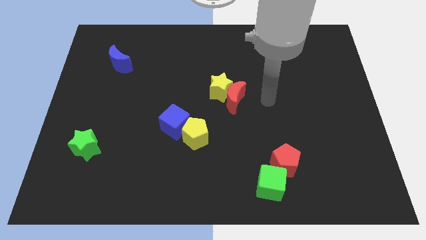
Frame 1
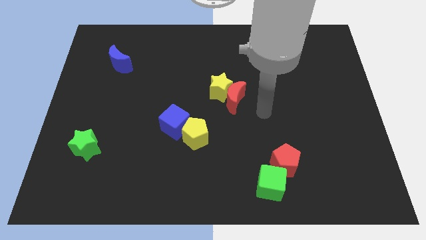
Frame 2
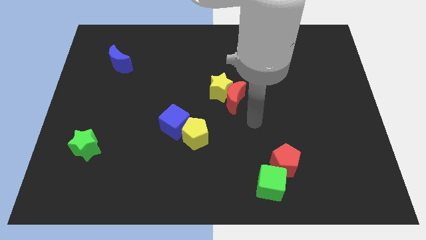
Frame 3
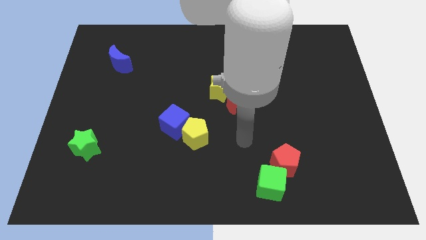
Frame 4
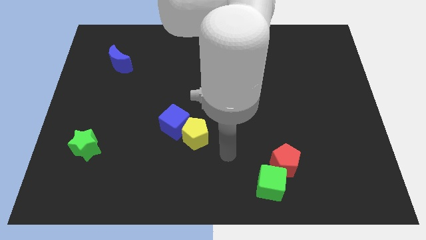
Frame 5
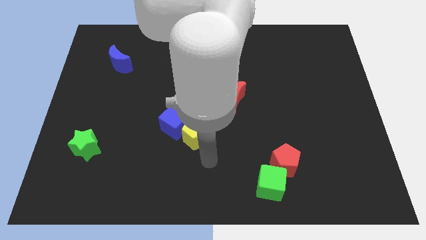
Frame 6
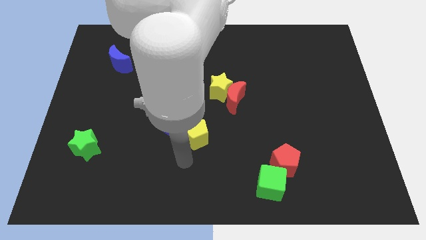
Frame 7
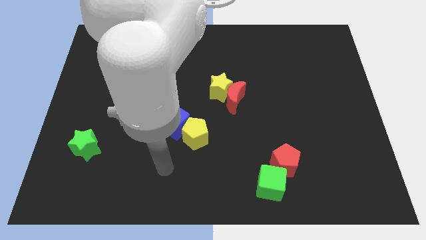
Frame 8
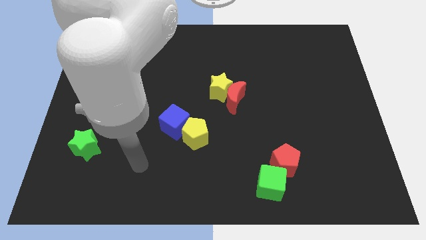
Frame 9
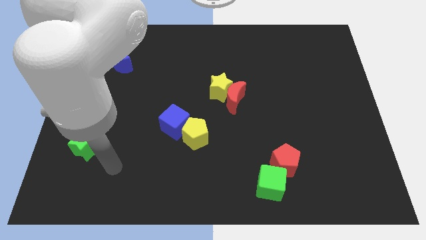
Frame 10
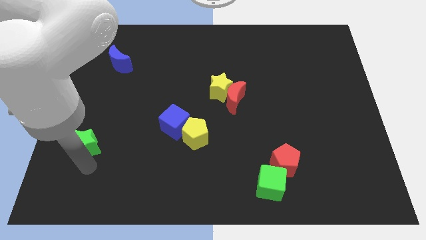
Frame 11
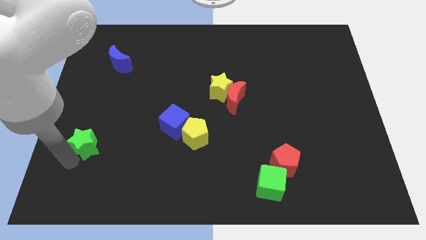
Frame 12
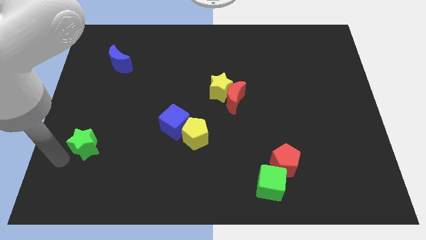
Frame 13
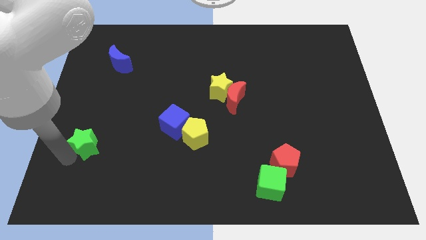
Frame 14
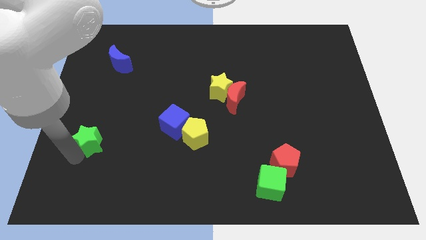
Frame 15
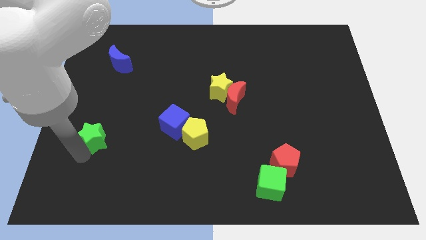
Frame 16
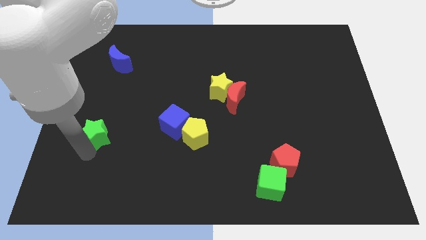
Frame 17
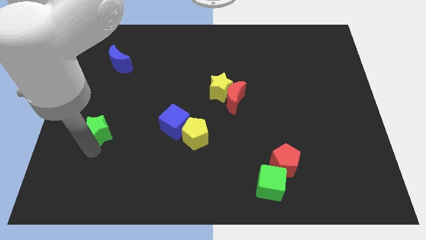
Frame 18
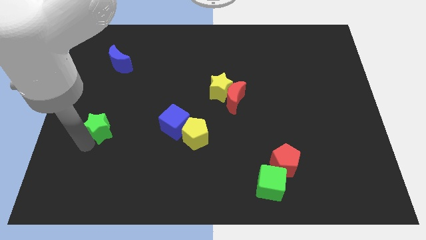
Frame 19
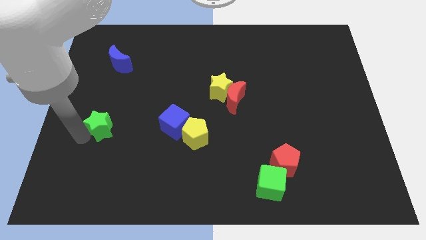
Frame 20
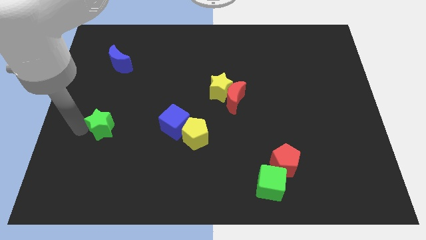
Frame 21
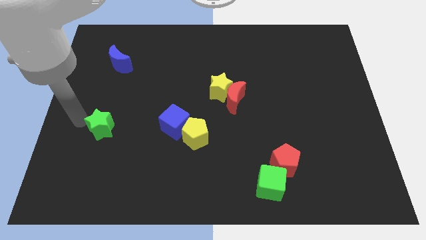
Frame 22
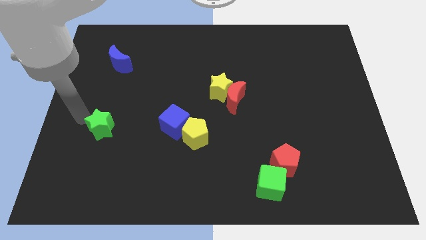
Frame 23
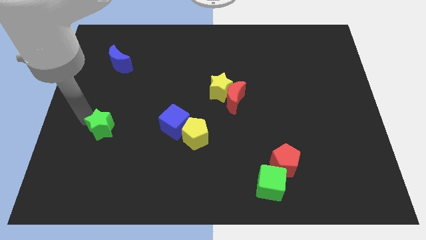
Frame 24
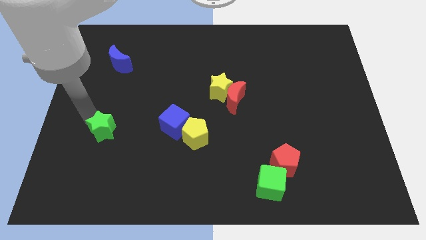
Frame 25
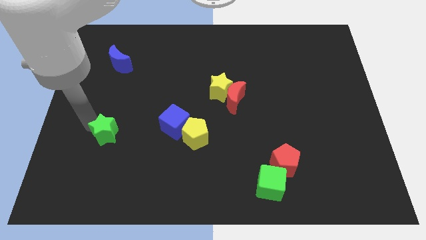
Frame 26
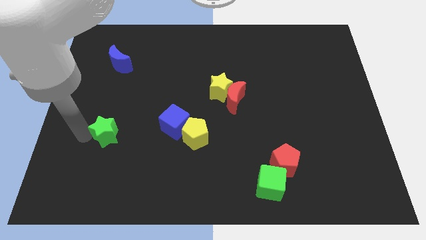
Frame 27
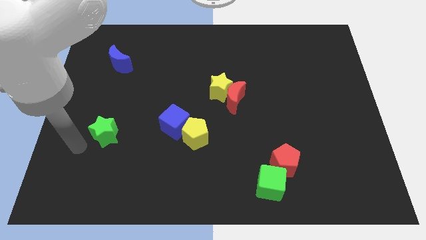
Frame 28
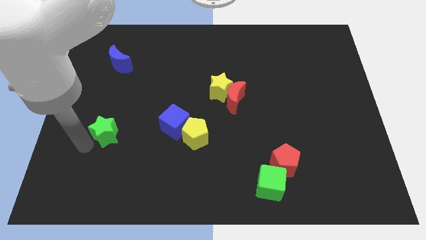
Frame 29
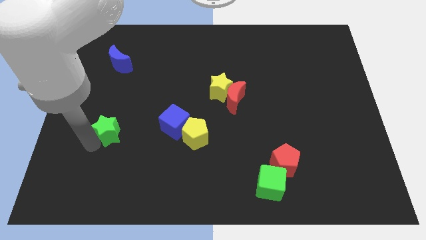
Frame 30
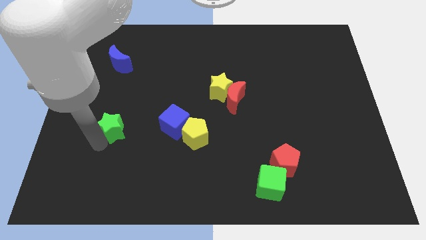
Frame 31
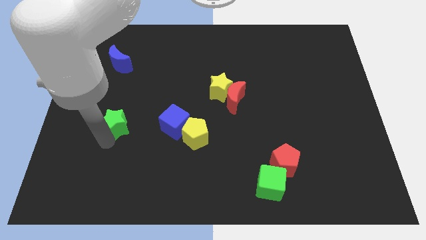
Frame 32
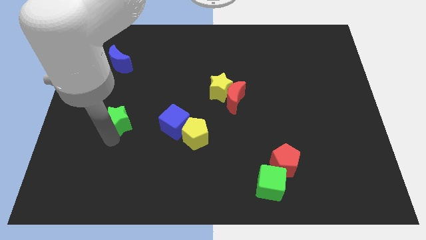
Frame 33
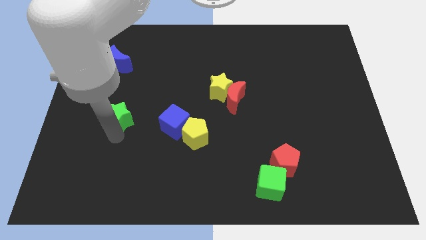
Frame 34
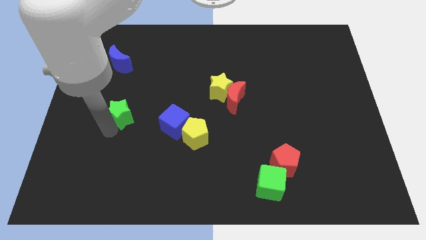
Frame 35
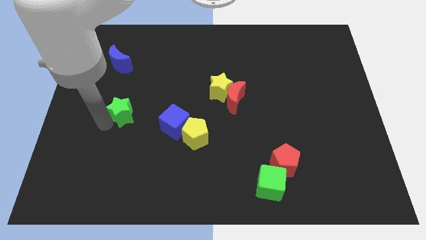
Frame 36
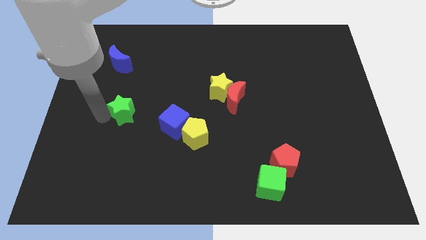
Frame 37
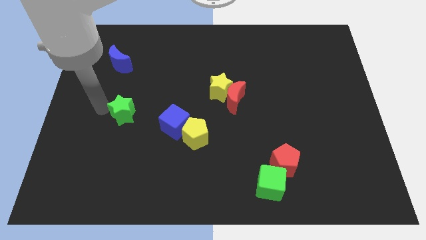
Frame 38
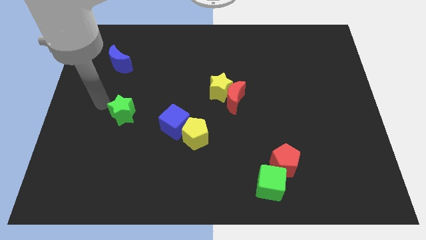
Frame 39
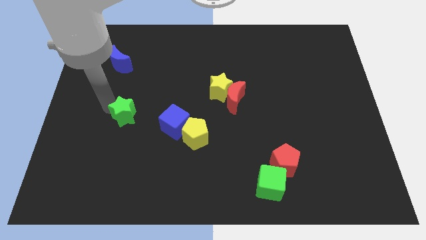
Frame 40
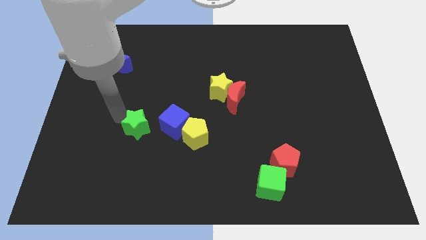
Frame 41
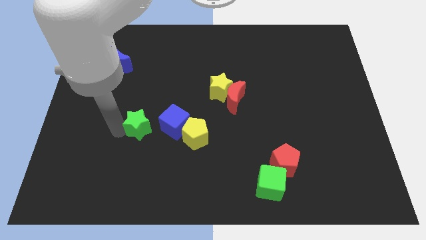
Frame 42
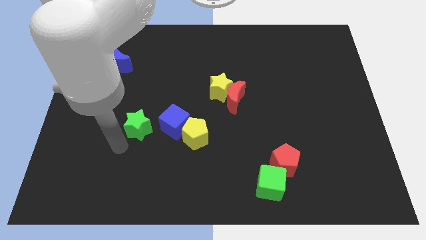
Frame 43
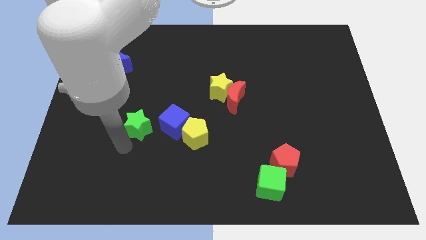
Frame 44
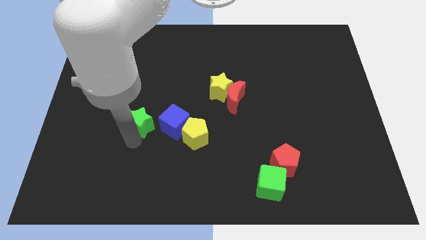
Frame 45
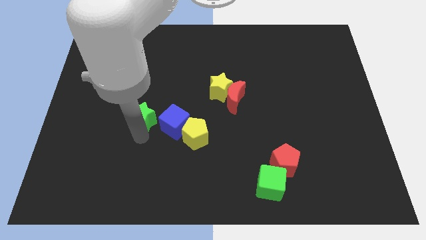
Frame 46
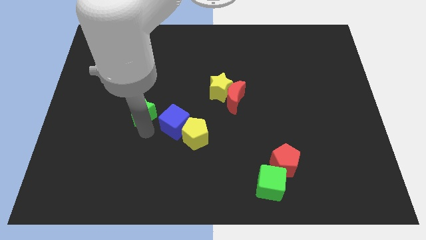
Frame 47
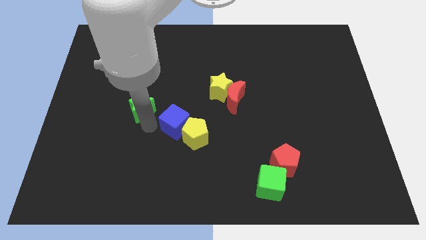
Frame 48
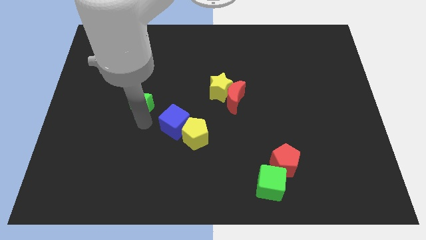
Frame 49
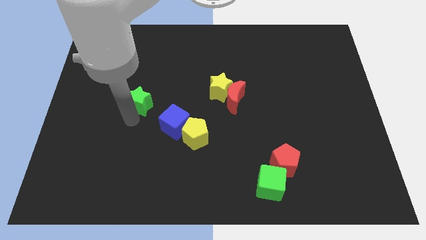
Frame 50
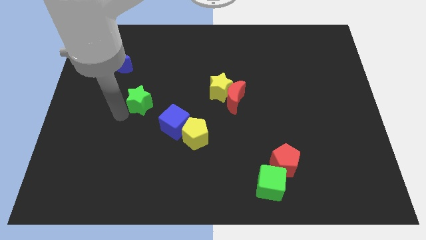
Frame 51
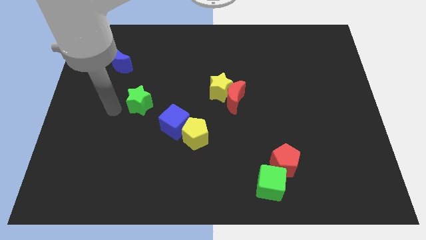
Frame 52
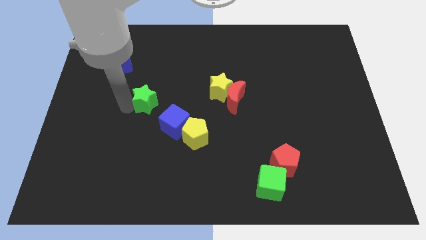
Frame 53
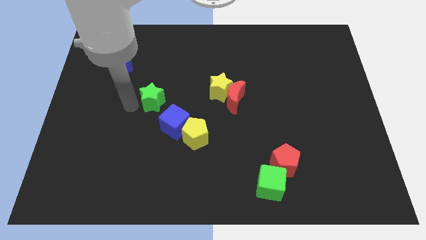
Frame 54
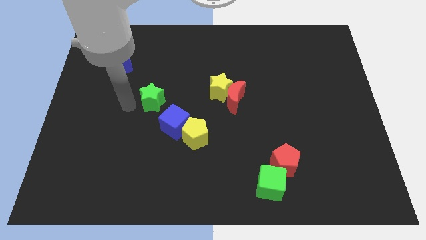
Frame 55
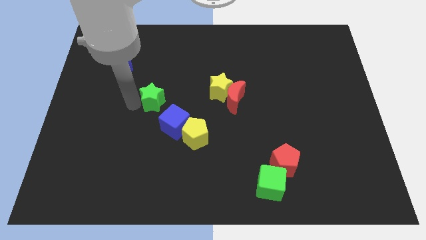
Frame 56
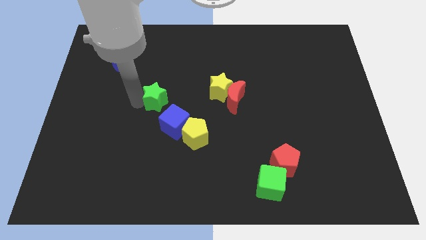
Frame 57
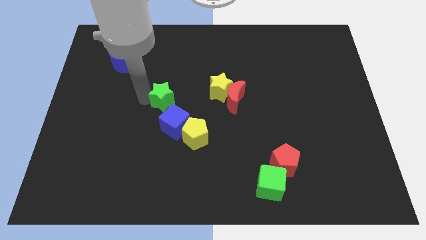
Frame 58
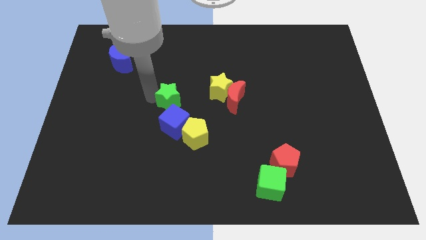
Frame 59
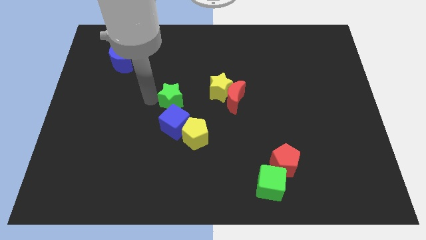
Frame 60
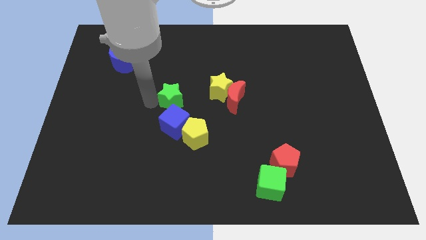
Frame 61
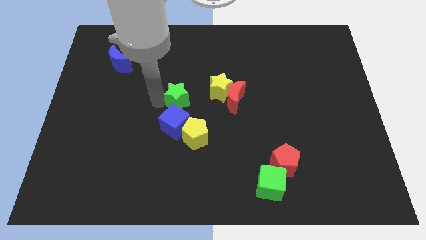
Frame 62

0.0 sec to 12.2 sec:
put the green star to the top side of the yellow pentagon
